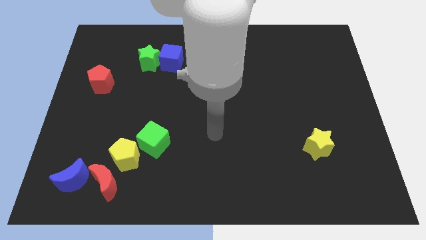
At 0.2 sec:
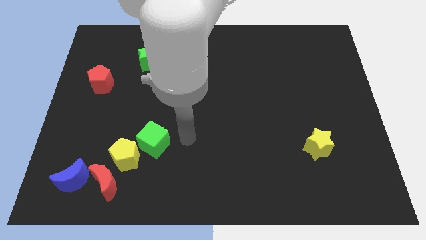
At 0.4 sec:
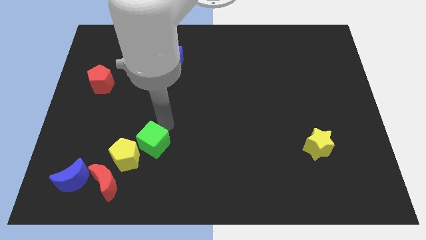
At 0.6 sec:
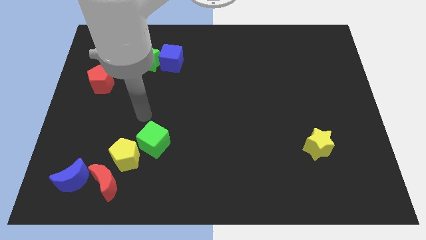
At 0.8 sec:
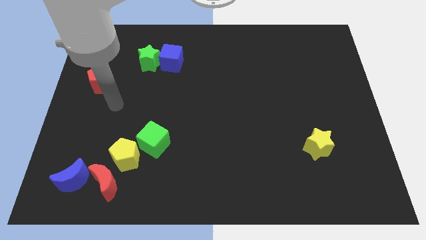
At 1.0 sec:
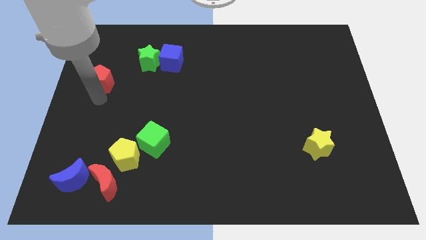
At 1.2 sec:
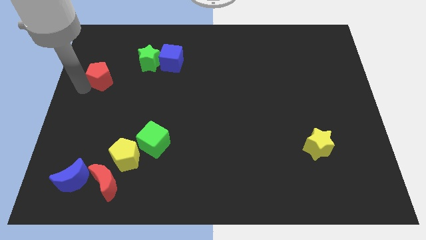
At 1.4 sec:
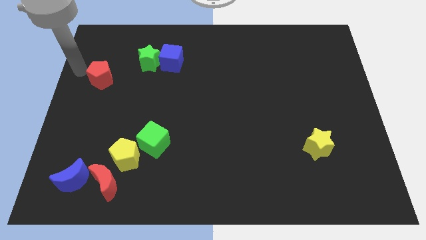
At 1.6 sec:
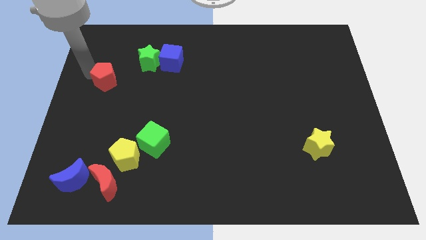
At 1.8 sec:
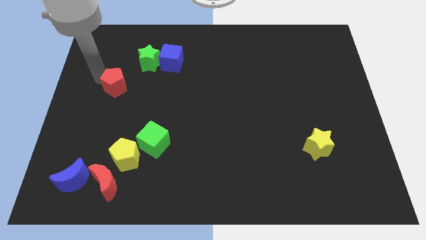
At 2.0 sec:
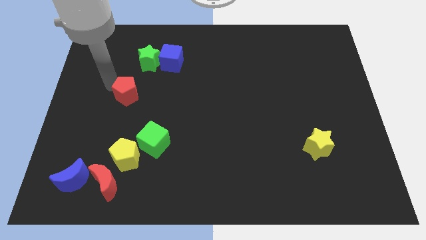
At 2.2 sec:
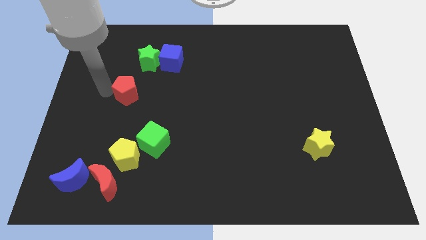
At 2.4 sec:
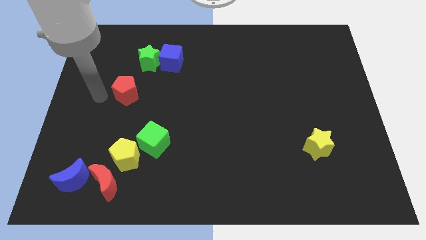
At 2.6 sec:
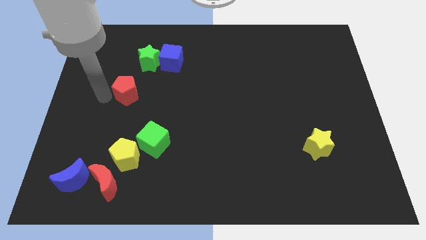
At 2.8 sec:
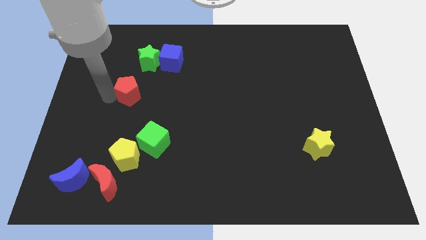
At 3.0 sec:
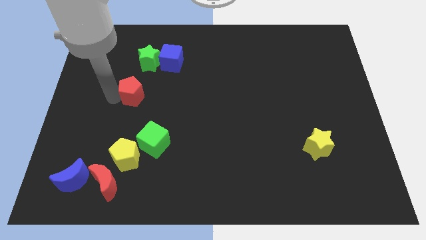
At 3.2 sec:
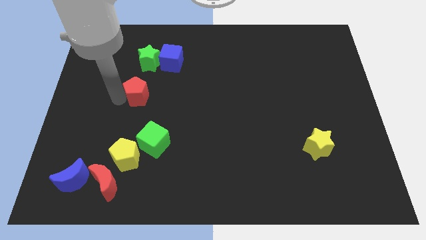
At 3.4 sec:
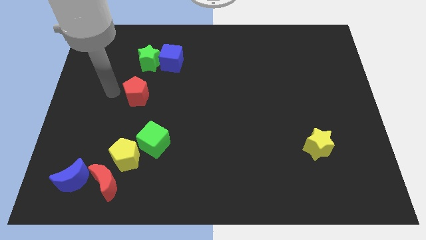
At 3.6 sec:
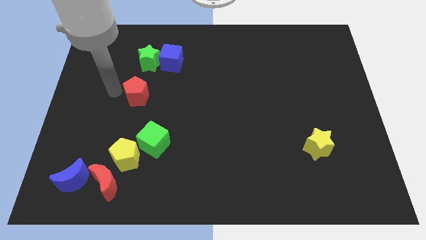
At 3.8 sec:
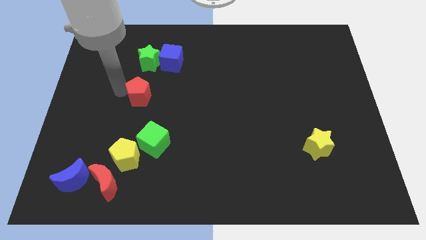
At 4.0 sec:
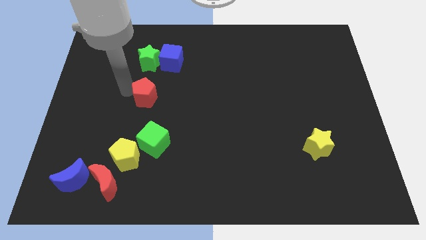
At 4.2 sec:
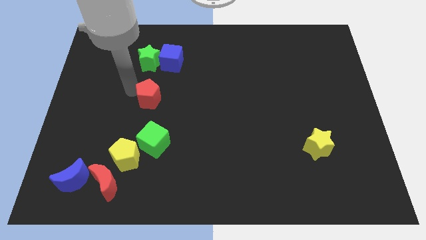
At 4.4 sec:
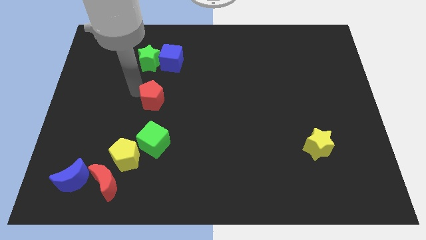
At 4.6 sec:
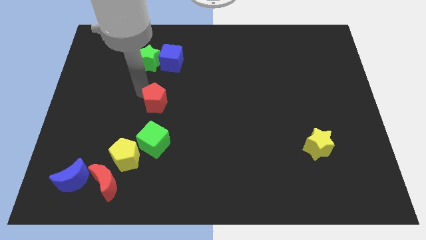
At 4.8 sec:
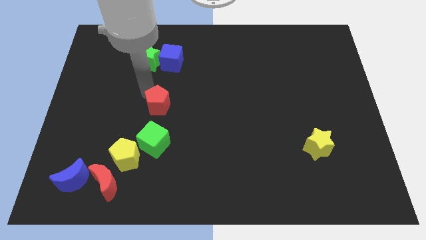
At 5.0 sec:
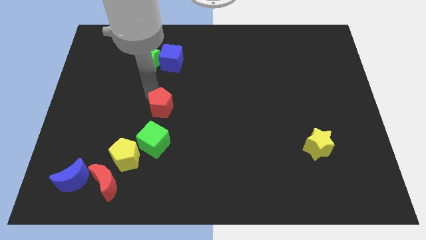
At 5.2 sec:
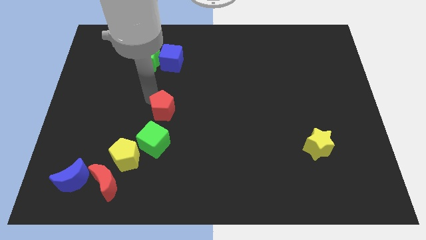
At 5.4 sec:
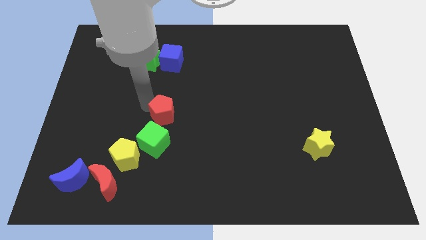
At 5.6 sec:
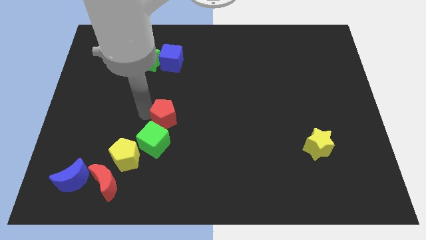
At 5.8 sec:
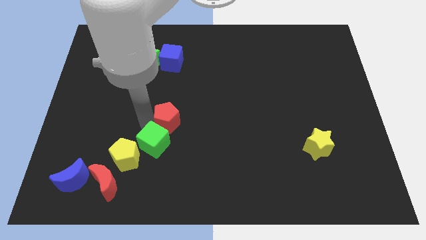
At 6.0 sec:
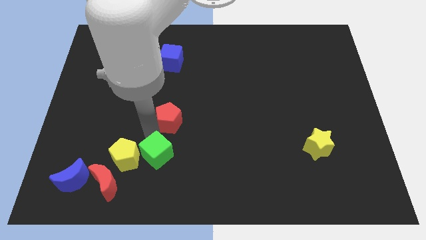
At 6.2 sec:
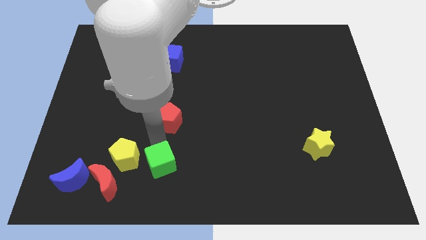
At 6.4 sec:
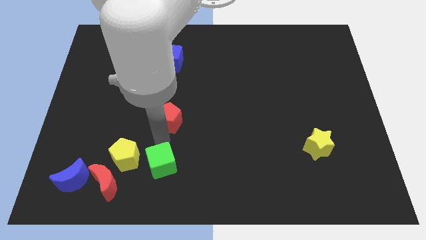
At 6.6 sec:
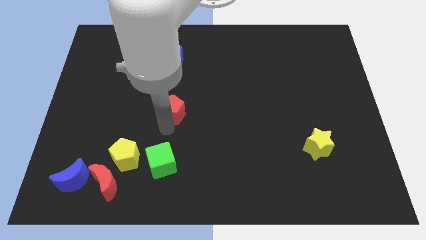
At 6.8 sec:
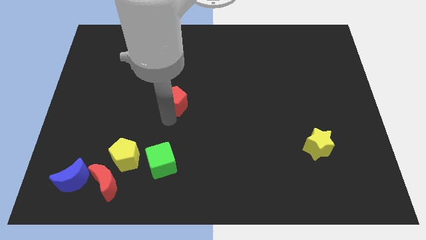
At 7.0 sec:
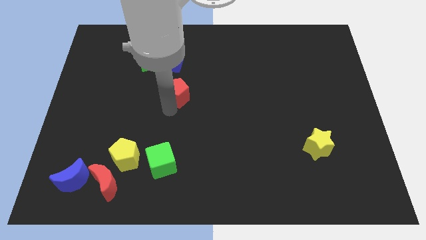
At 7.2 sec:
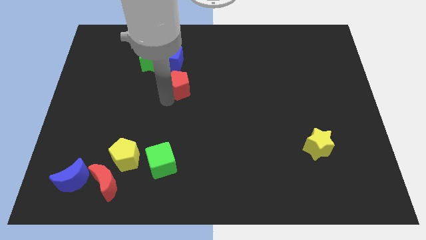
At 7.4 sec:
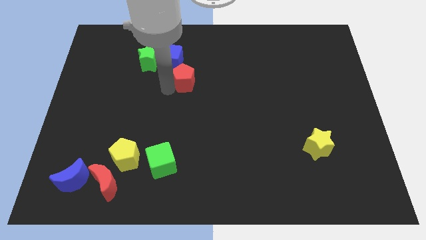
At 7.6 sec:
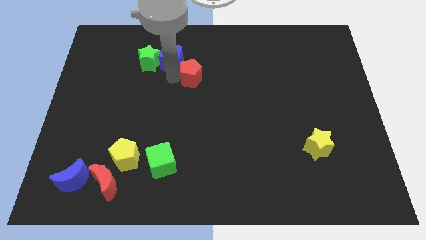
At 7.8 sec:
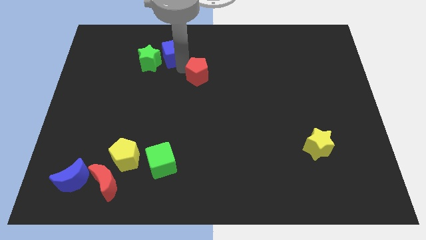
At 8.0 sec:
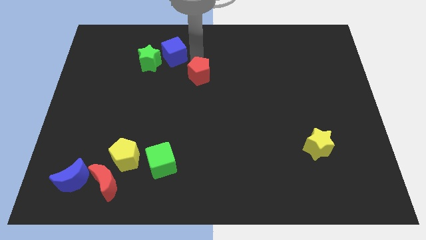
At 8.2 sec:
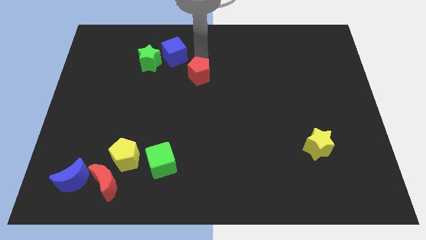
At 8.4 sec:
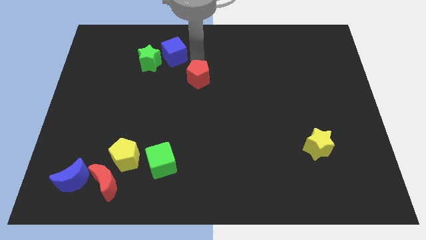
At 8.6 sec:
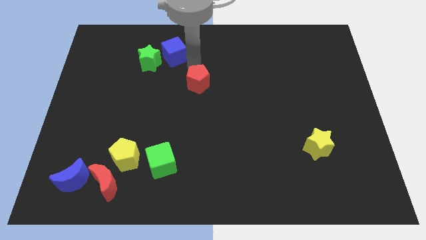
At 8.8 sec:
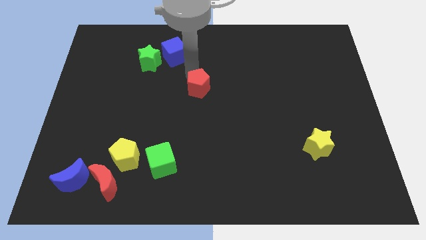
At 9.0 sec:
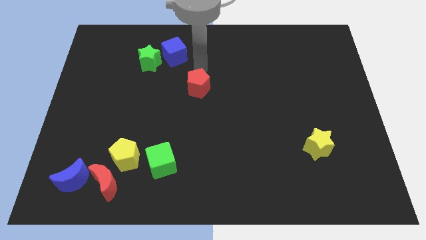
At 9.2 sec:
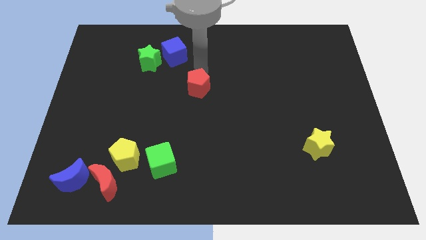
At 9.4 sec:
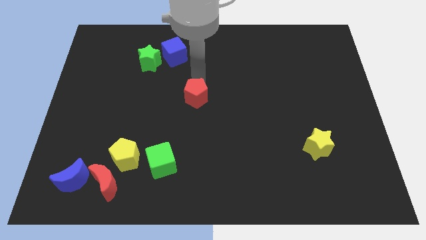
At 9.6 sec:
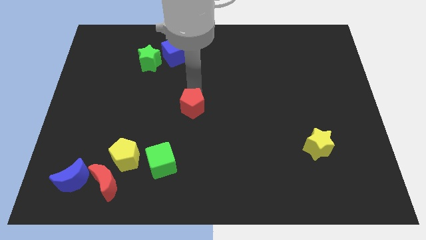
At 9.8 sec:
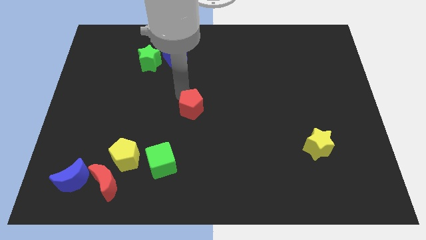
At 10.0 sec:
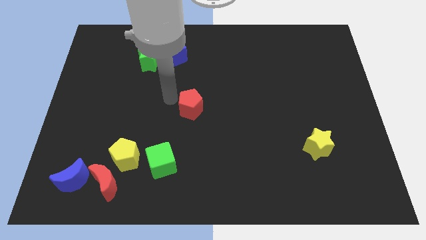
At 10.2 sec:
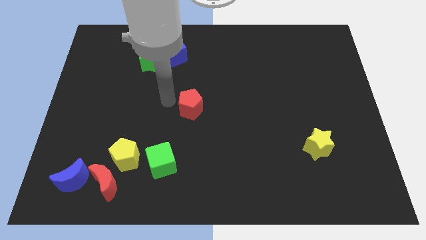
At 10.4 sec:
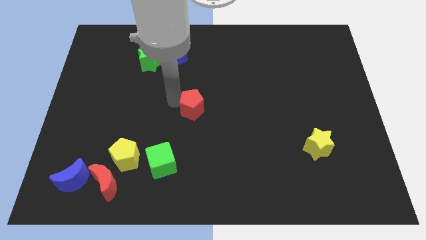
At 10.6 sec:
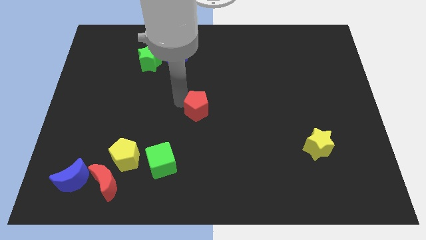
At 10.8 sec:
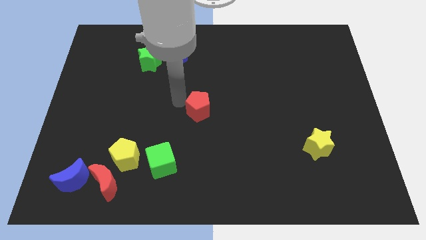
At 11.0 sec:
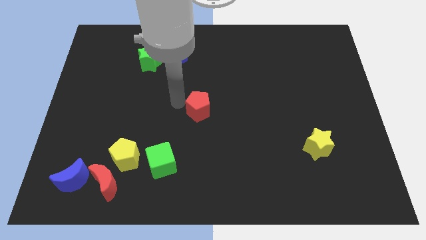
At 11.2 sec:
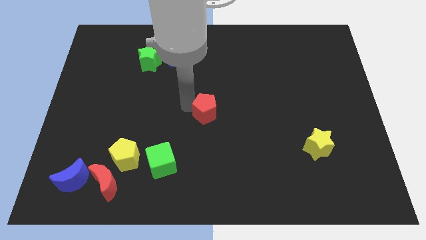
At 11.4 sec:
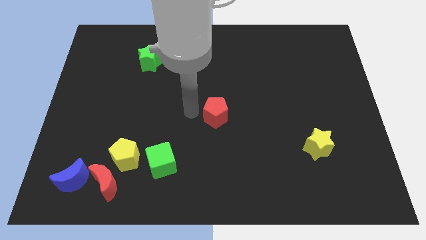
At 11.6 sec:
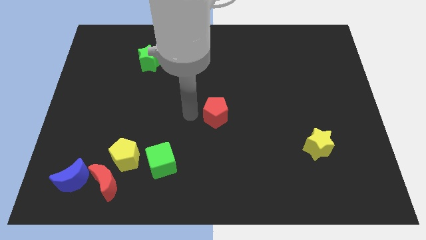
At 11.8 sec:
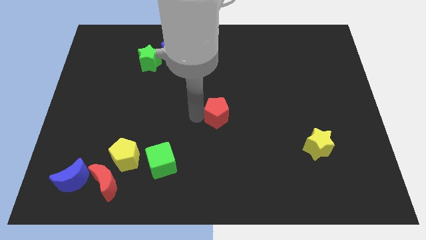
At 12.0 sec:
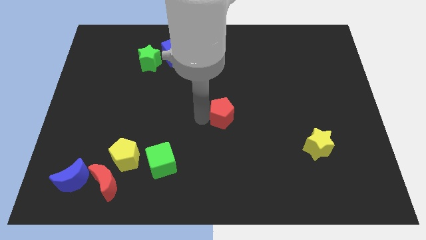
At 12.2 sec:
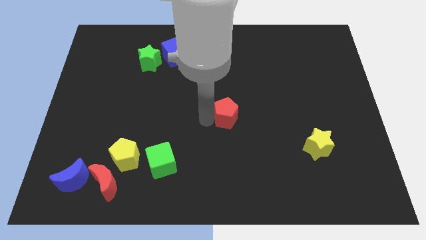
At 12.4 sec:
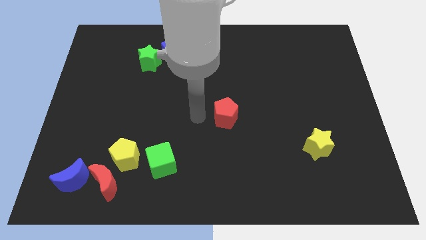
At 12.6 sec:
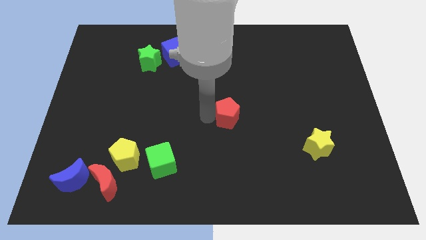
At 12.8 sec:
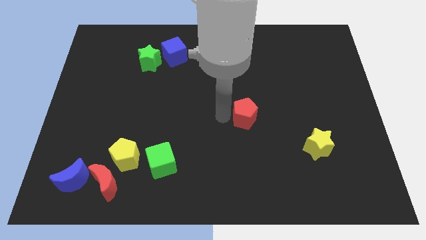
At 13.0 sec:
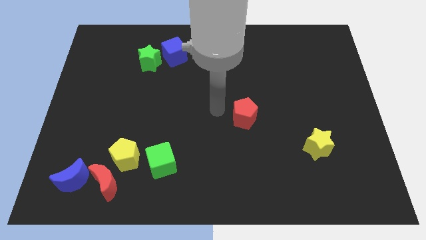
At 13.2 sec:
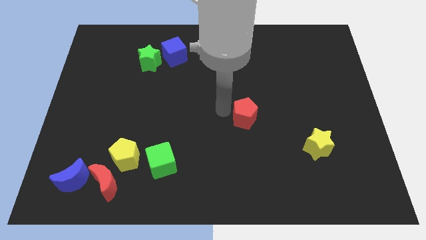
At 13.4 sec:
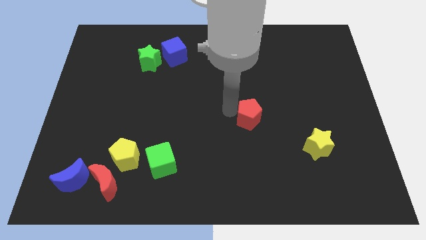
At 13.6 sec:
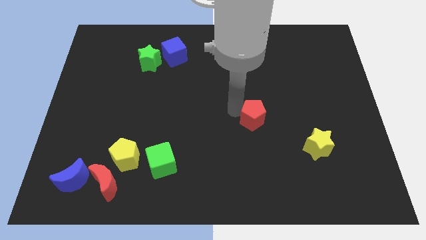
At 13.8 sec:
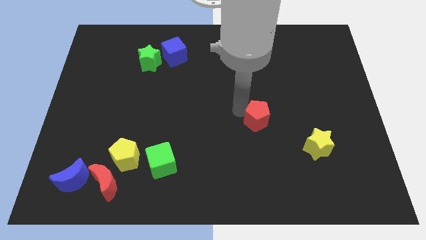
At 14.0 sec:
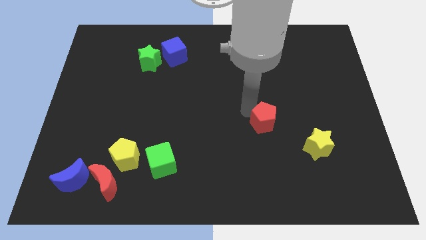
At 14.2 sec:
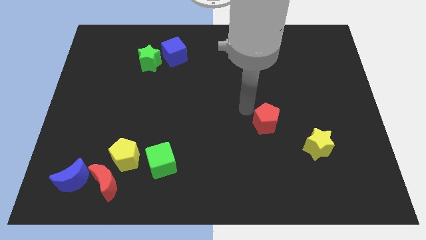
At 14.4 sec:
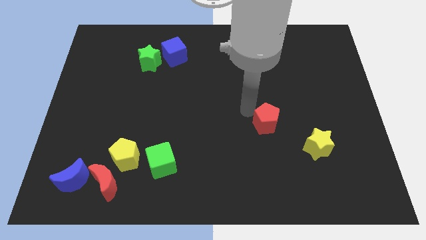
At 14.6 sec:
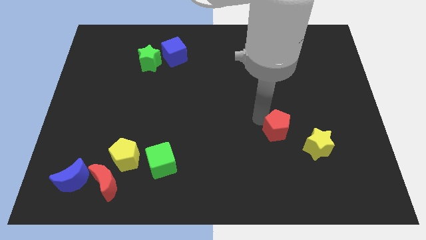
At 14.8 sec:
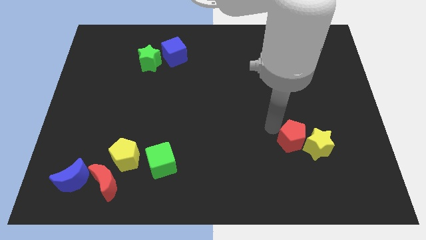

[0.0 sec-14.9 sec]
put the red pentagon towards the yellow star
